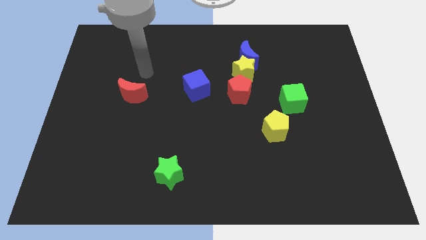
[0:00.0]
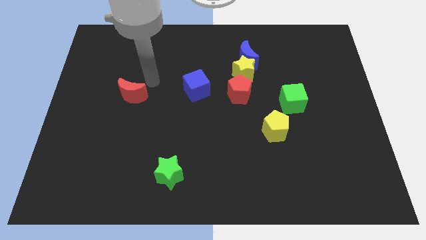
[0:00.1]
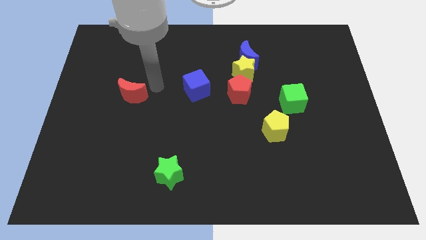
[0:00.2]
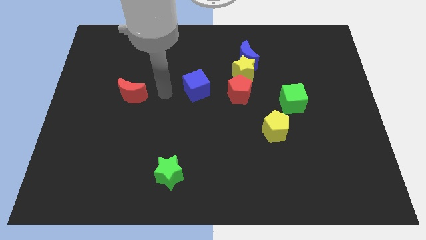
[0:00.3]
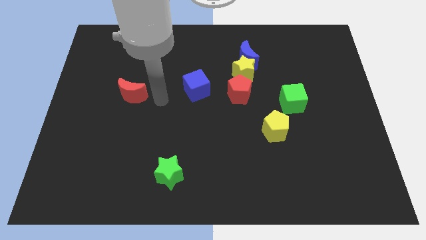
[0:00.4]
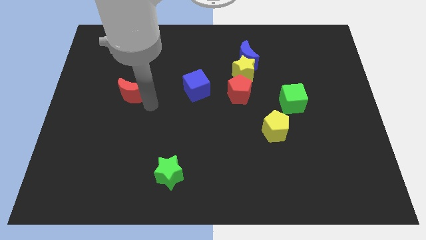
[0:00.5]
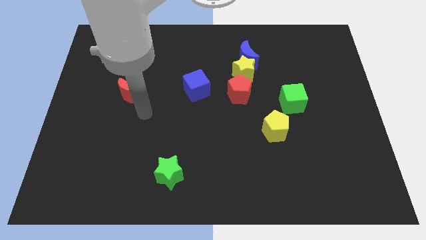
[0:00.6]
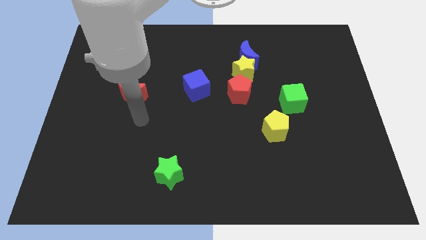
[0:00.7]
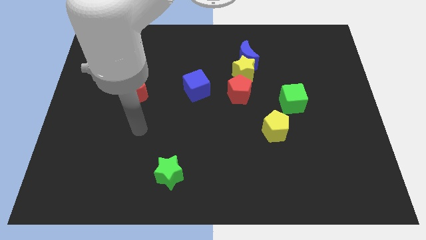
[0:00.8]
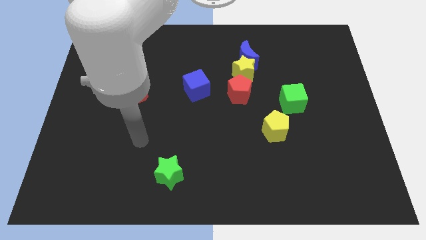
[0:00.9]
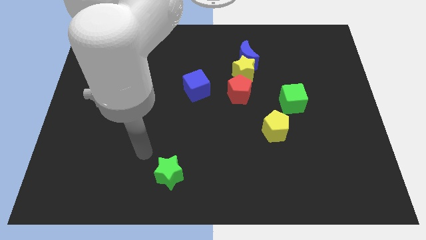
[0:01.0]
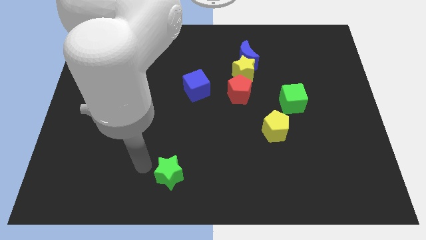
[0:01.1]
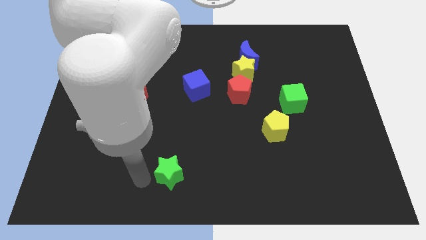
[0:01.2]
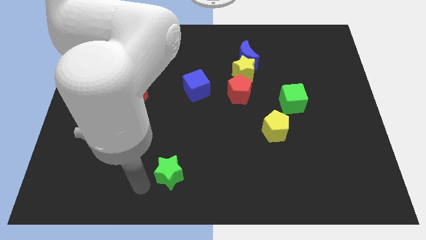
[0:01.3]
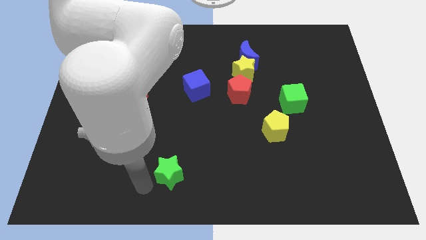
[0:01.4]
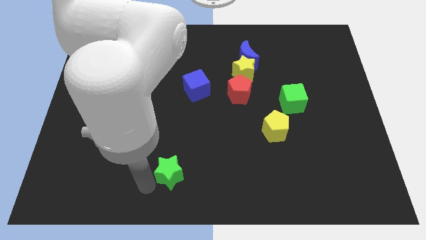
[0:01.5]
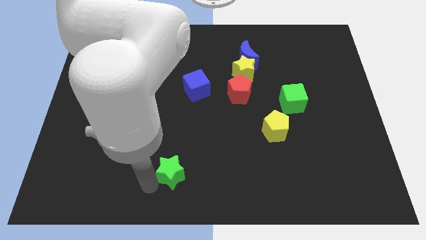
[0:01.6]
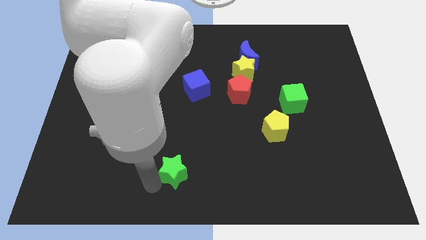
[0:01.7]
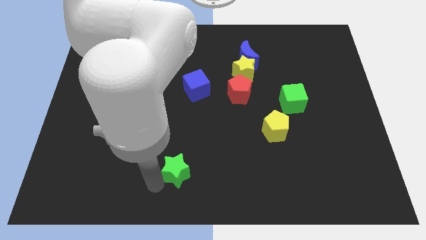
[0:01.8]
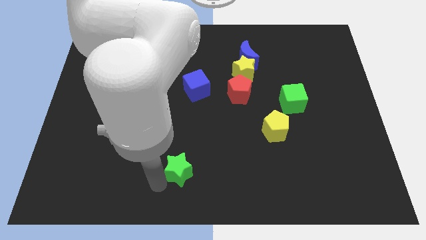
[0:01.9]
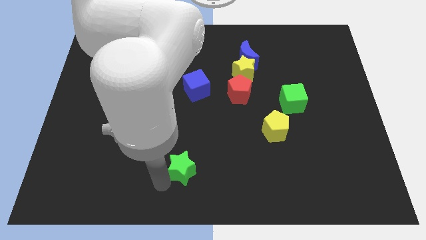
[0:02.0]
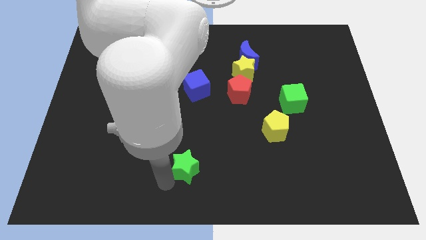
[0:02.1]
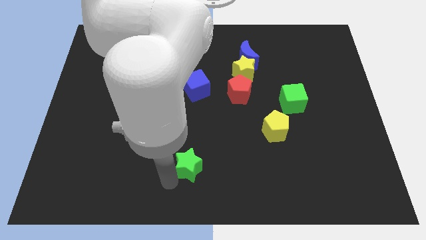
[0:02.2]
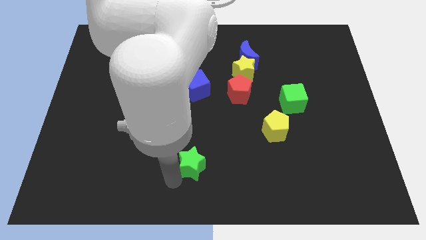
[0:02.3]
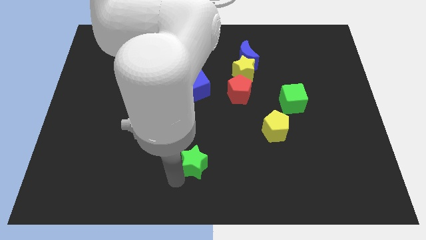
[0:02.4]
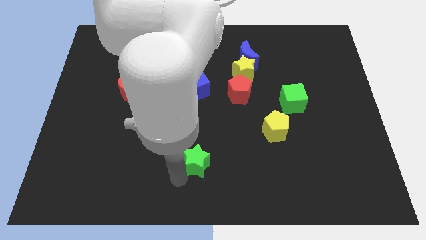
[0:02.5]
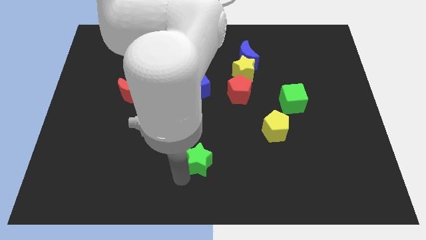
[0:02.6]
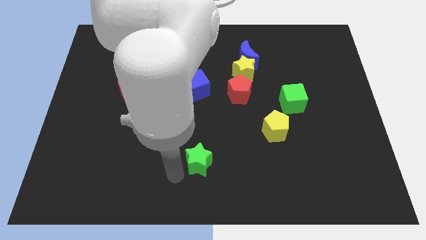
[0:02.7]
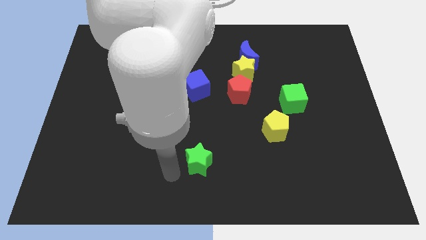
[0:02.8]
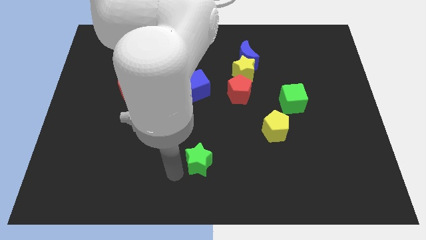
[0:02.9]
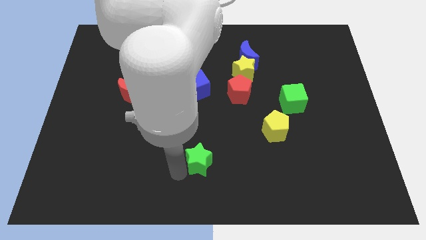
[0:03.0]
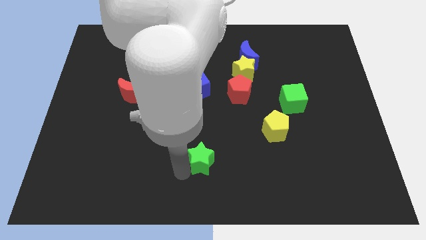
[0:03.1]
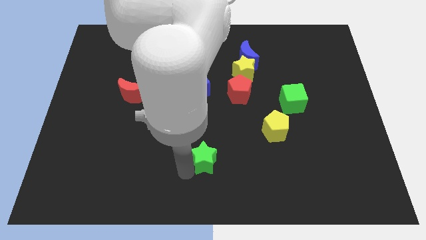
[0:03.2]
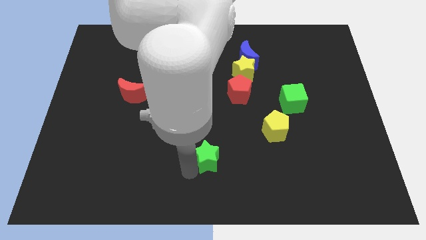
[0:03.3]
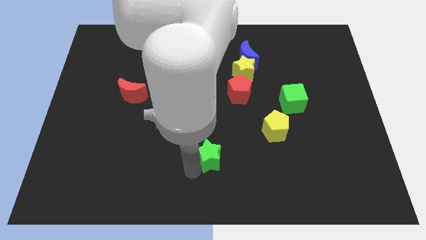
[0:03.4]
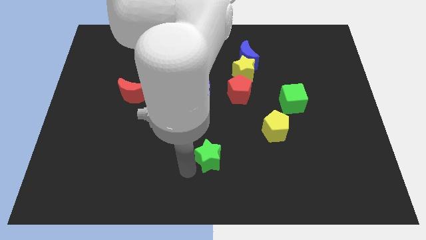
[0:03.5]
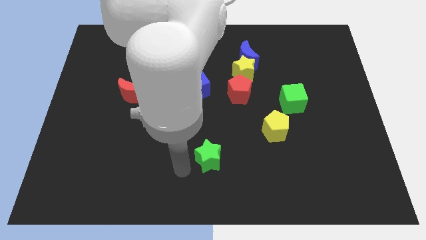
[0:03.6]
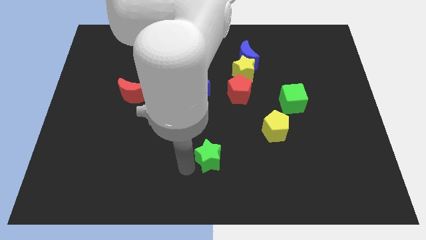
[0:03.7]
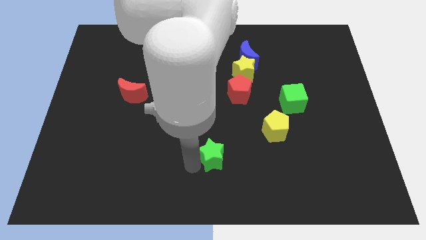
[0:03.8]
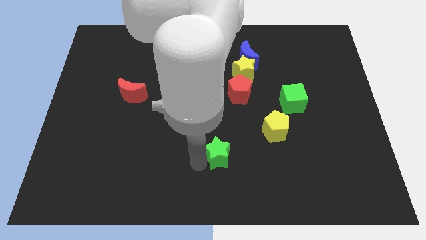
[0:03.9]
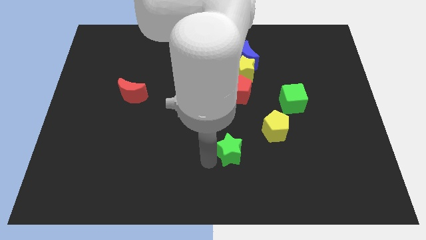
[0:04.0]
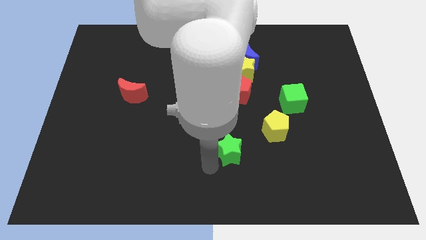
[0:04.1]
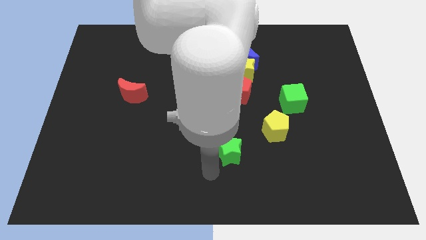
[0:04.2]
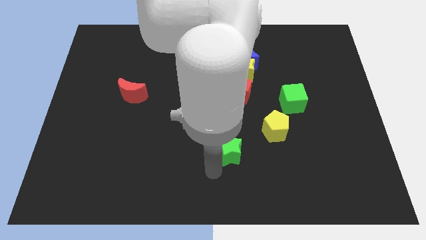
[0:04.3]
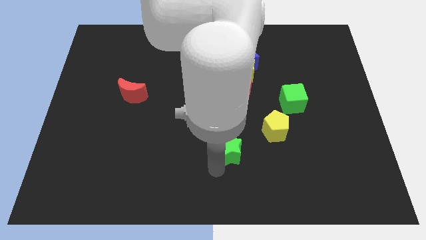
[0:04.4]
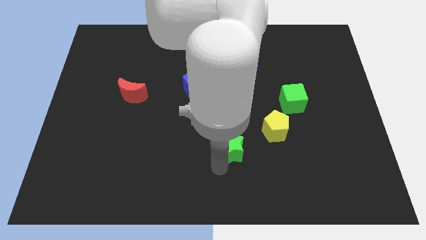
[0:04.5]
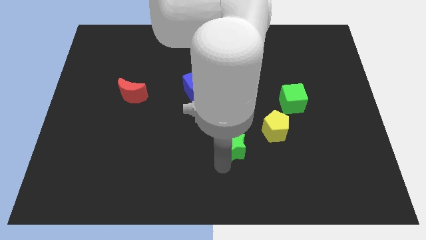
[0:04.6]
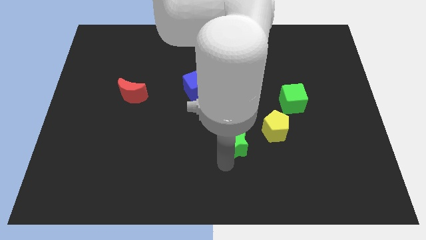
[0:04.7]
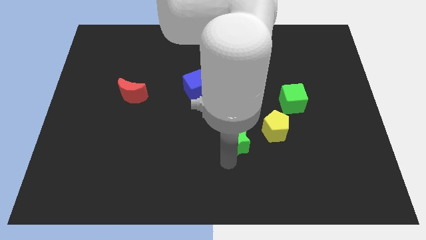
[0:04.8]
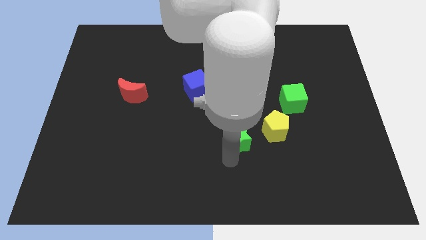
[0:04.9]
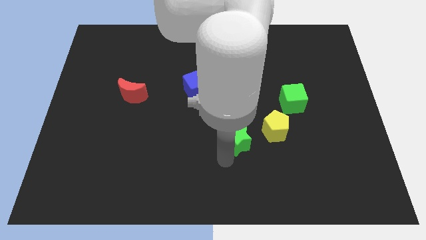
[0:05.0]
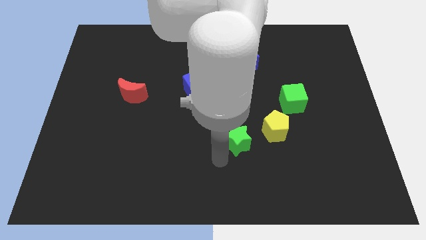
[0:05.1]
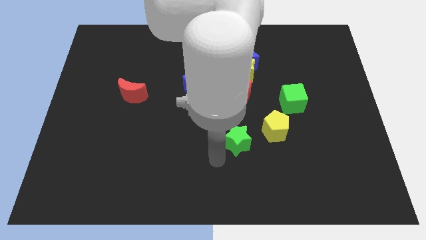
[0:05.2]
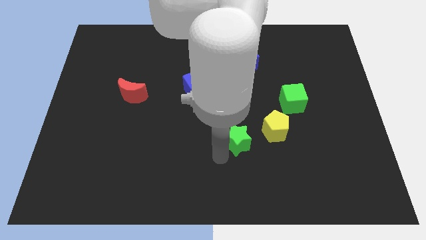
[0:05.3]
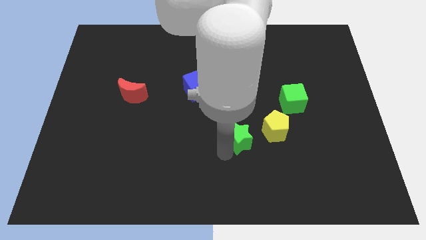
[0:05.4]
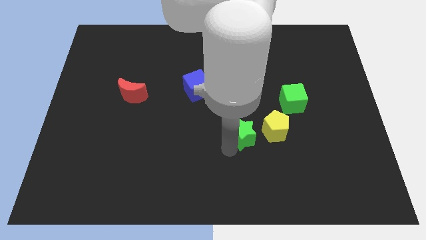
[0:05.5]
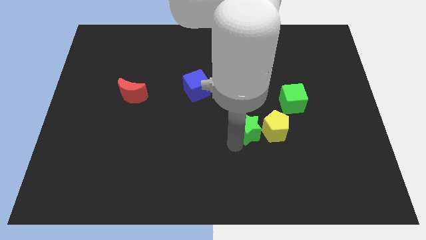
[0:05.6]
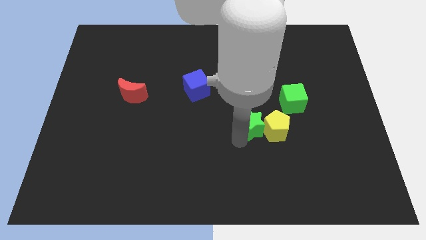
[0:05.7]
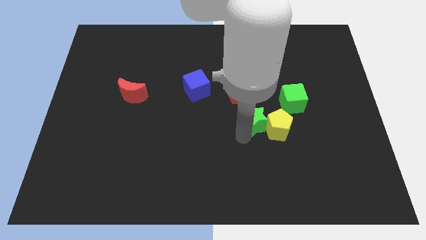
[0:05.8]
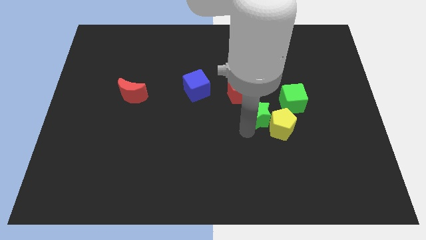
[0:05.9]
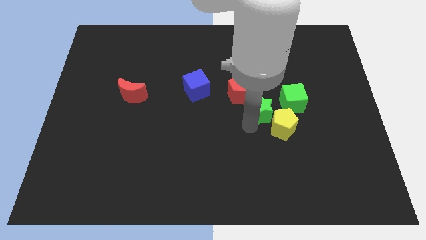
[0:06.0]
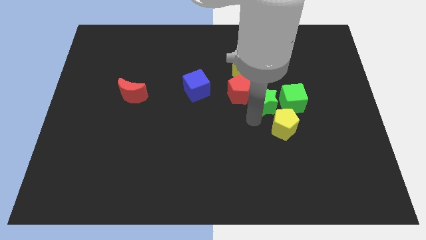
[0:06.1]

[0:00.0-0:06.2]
slide the green star next to the green cube

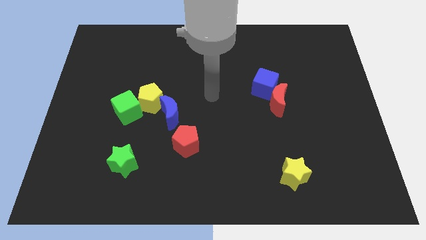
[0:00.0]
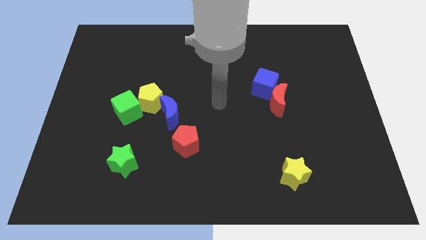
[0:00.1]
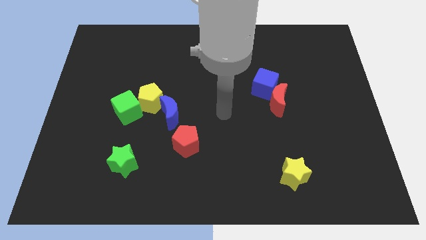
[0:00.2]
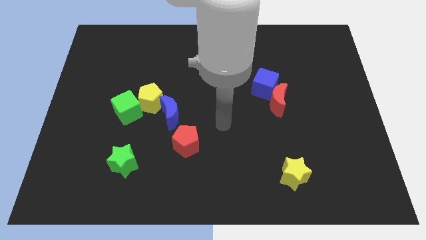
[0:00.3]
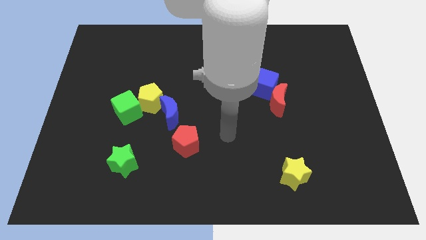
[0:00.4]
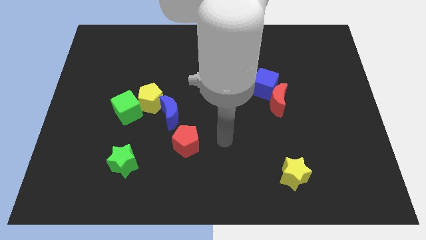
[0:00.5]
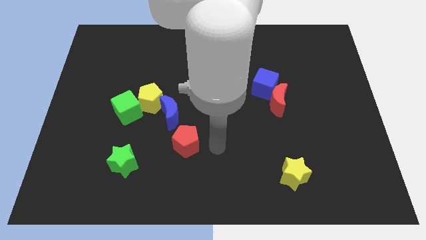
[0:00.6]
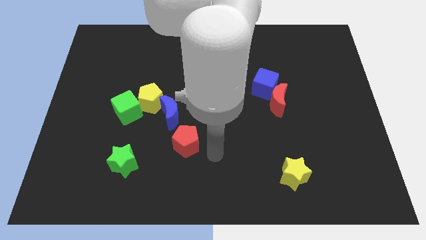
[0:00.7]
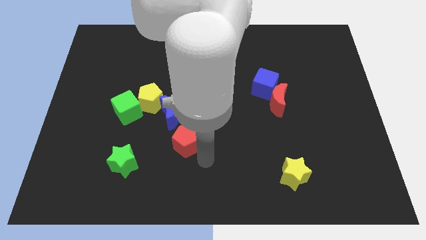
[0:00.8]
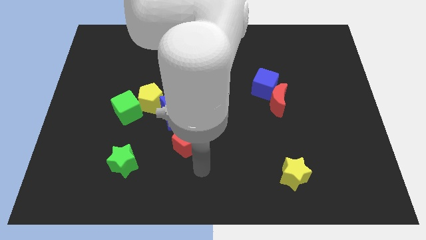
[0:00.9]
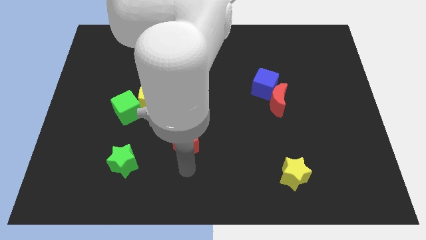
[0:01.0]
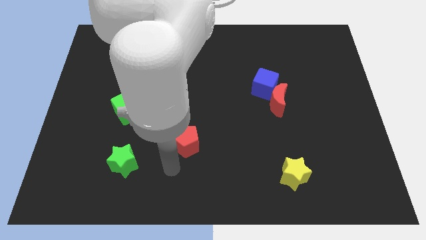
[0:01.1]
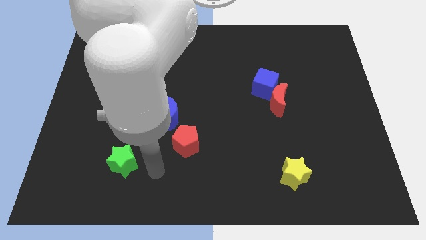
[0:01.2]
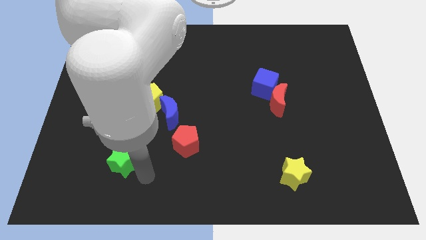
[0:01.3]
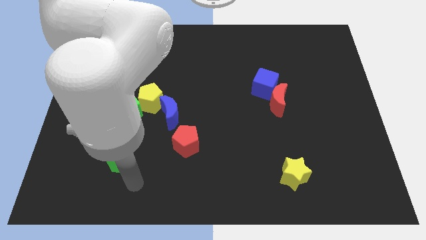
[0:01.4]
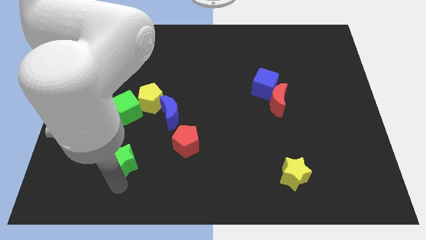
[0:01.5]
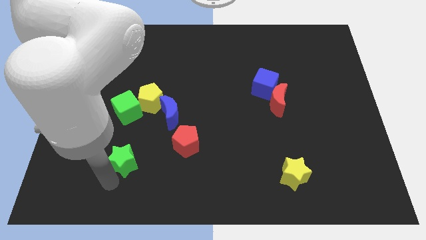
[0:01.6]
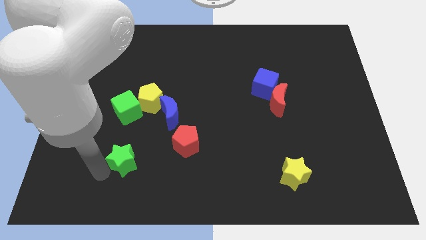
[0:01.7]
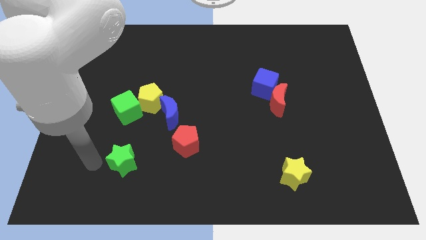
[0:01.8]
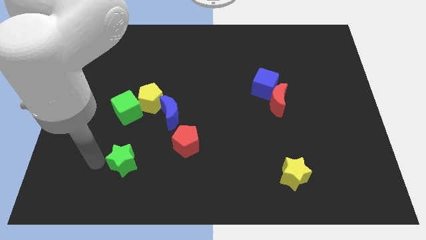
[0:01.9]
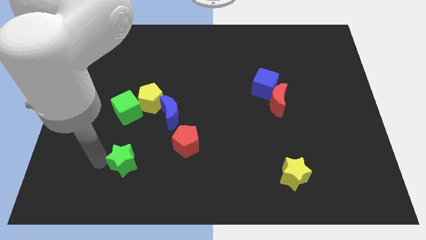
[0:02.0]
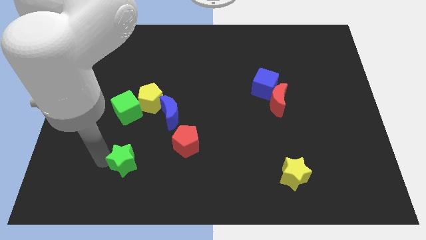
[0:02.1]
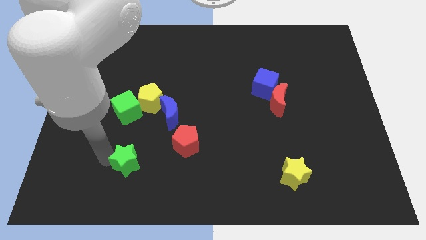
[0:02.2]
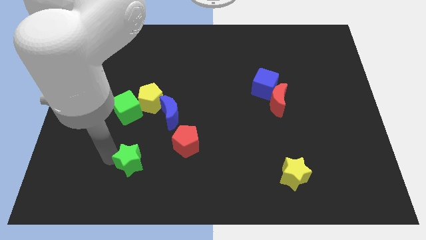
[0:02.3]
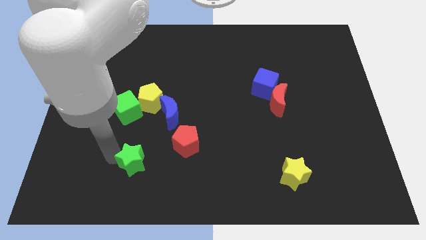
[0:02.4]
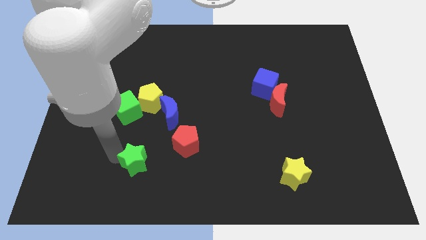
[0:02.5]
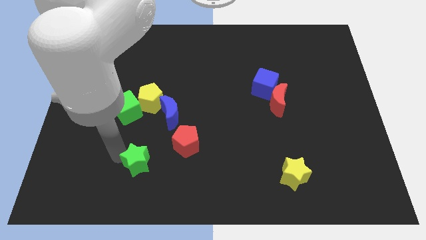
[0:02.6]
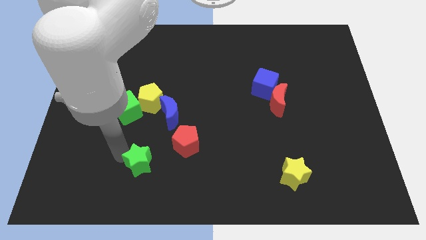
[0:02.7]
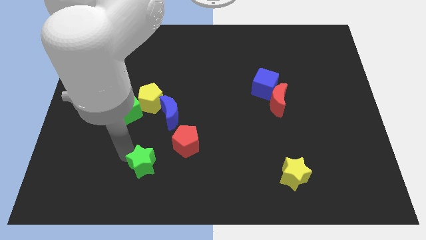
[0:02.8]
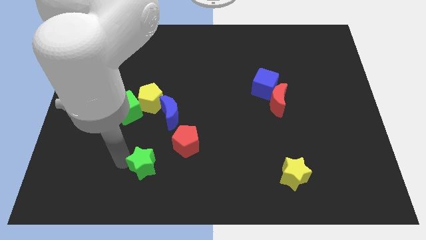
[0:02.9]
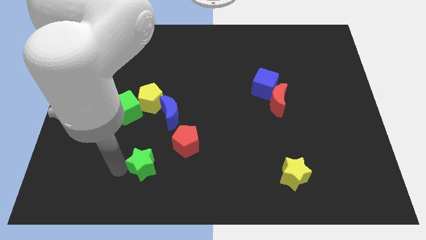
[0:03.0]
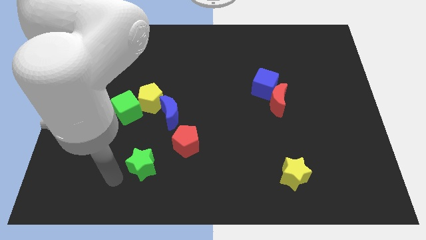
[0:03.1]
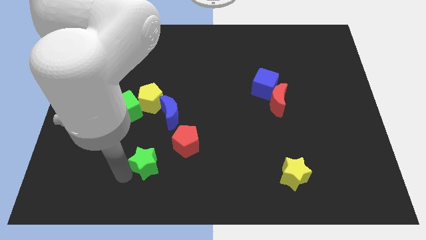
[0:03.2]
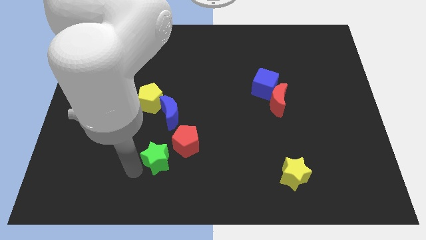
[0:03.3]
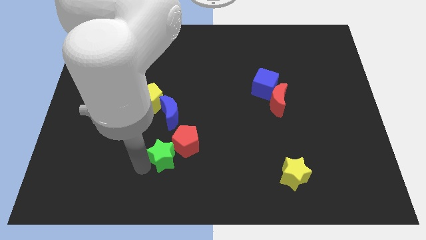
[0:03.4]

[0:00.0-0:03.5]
push the green star towards the red pentagon
